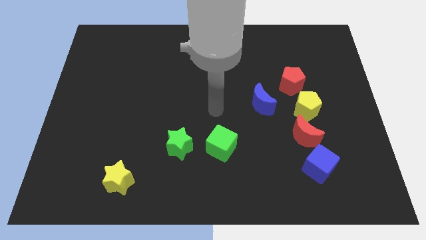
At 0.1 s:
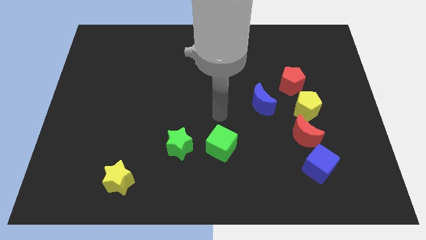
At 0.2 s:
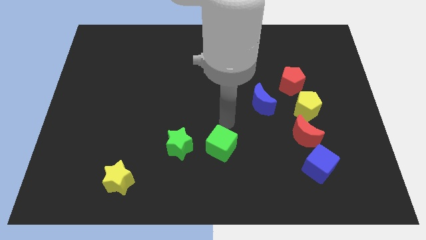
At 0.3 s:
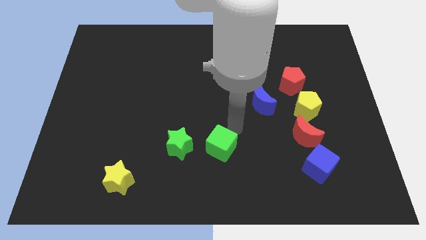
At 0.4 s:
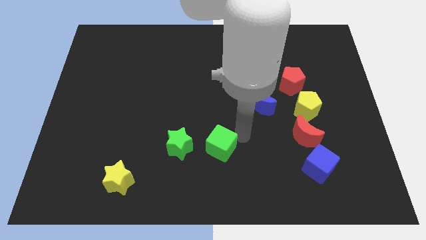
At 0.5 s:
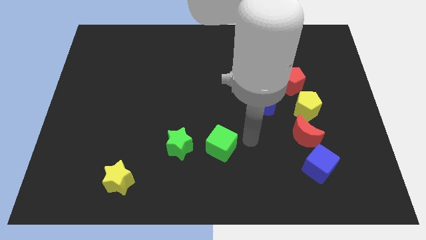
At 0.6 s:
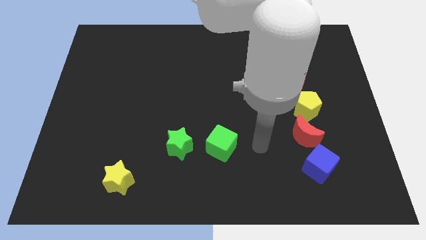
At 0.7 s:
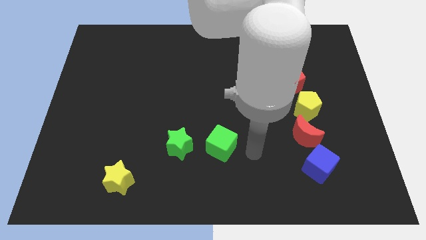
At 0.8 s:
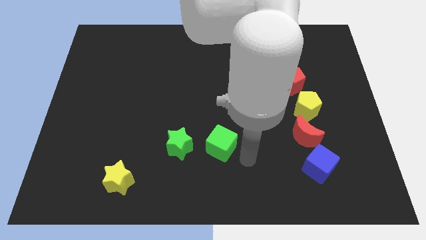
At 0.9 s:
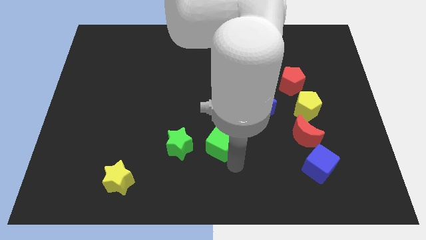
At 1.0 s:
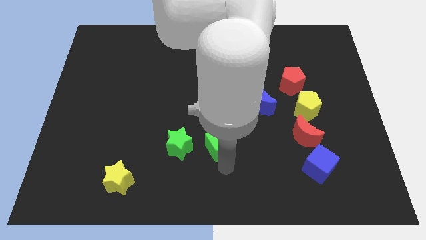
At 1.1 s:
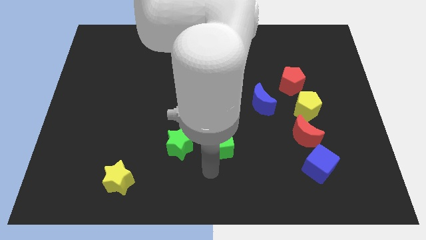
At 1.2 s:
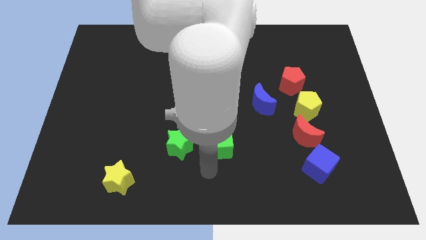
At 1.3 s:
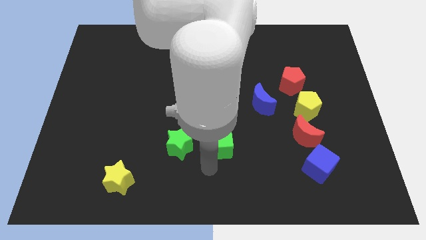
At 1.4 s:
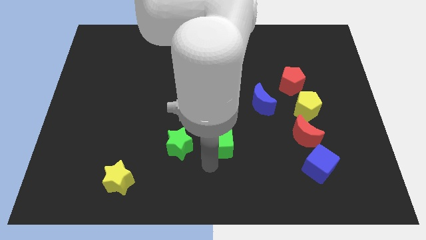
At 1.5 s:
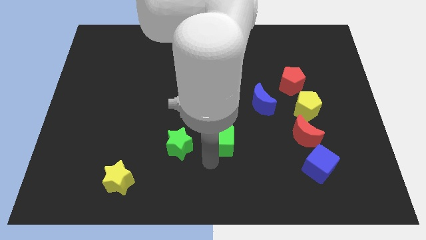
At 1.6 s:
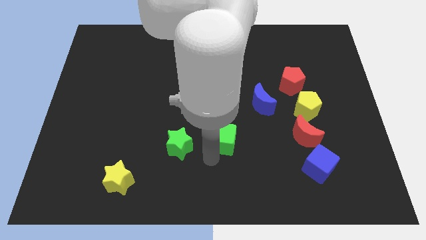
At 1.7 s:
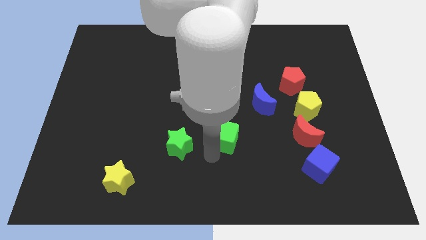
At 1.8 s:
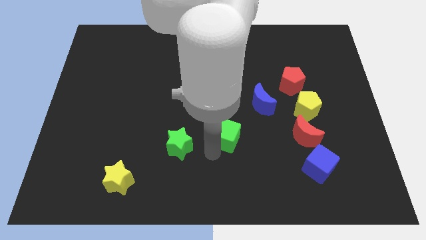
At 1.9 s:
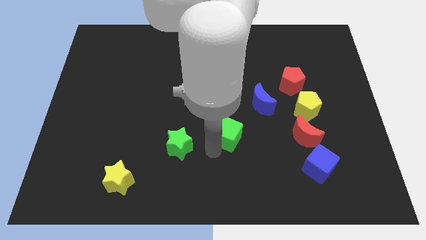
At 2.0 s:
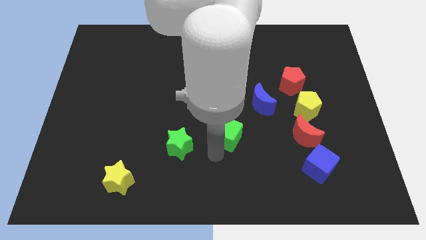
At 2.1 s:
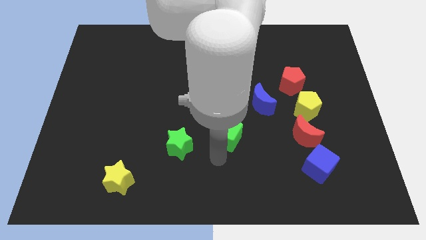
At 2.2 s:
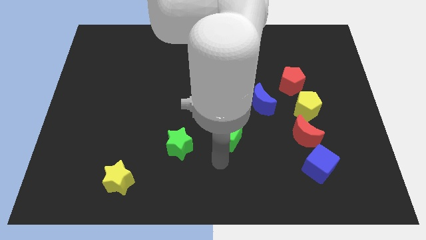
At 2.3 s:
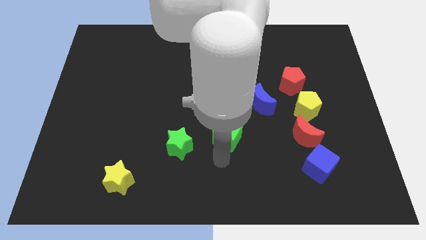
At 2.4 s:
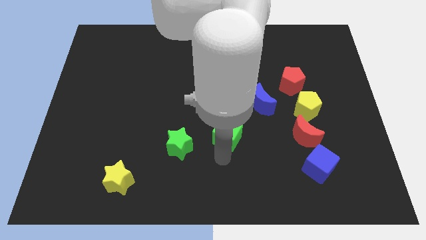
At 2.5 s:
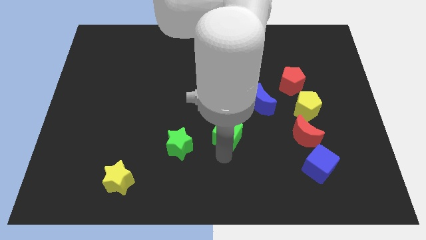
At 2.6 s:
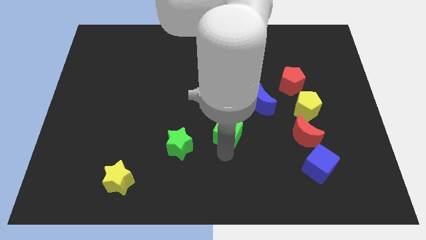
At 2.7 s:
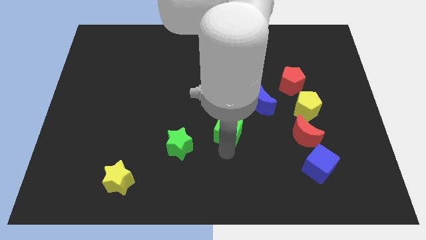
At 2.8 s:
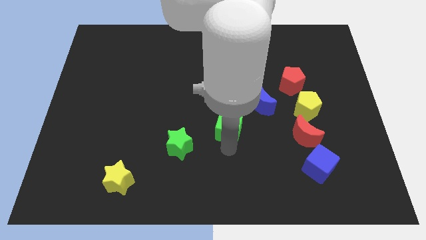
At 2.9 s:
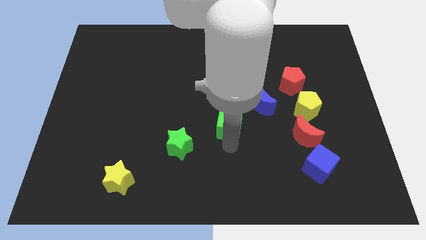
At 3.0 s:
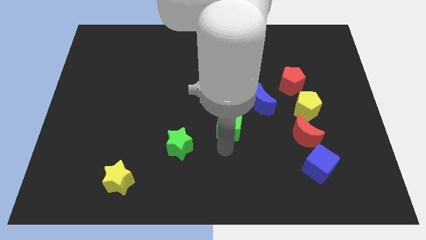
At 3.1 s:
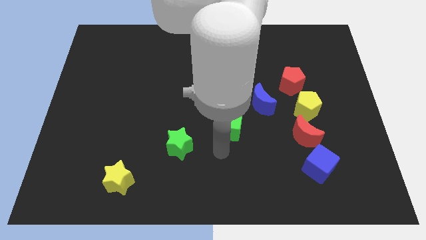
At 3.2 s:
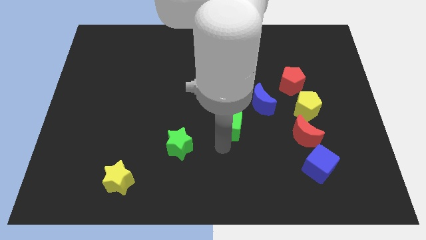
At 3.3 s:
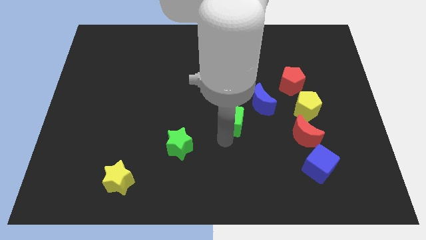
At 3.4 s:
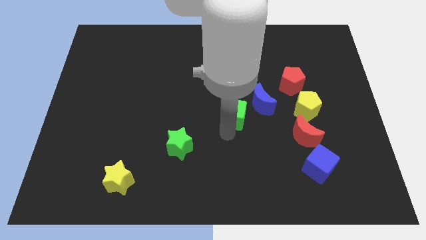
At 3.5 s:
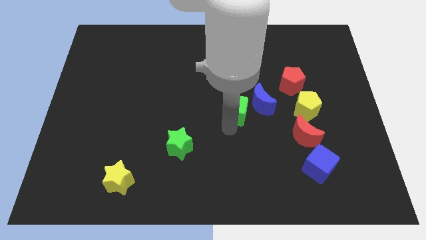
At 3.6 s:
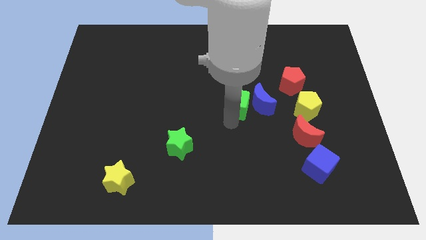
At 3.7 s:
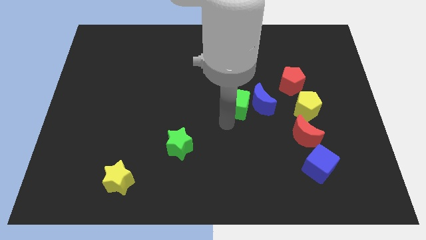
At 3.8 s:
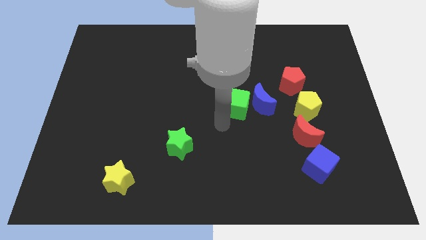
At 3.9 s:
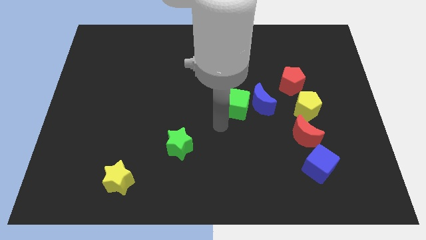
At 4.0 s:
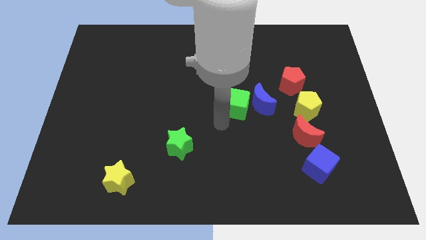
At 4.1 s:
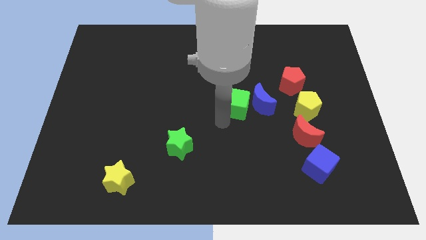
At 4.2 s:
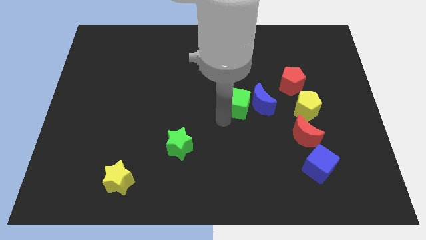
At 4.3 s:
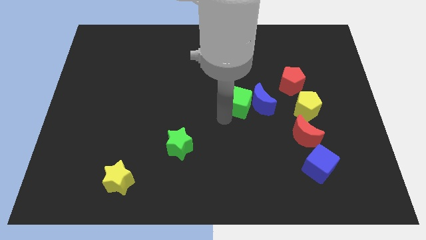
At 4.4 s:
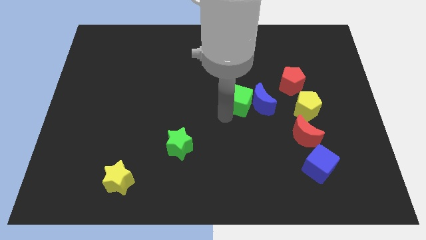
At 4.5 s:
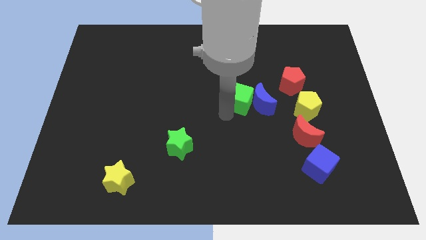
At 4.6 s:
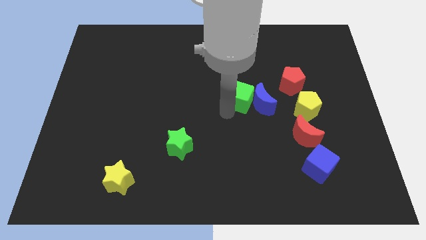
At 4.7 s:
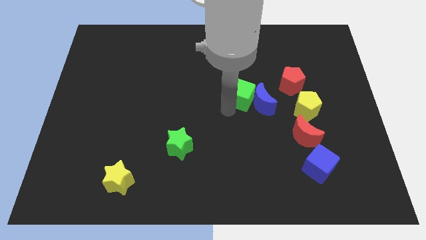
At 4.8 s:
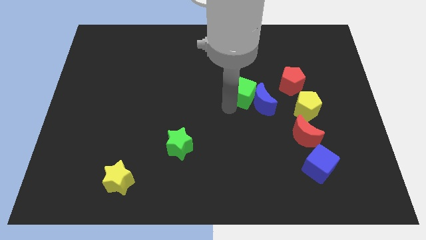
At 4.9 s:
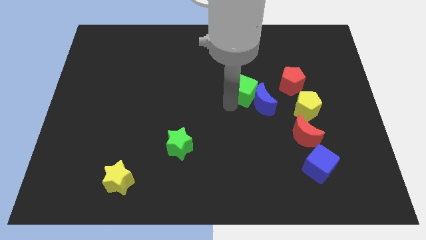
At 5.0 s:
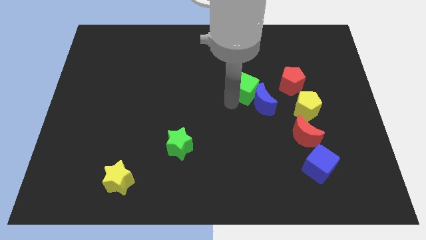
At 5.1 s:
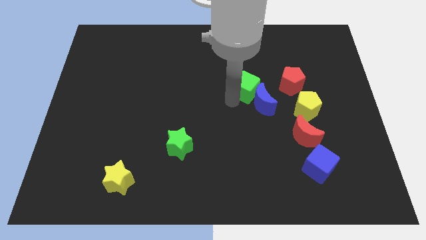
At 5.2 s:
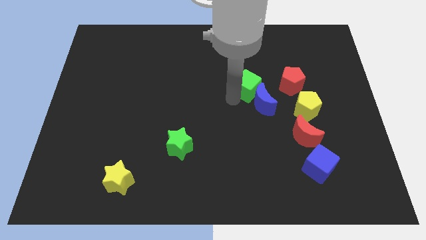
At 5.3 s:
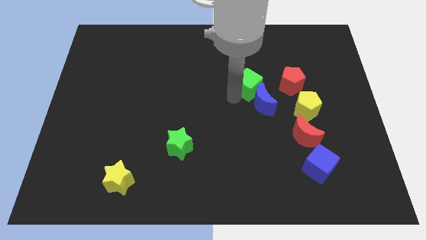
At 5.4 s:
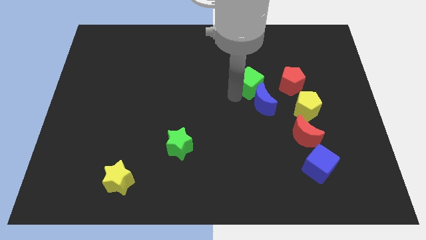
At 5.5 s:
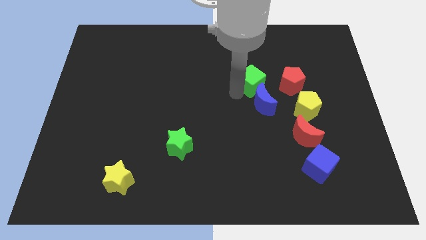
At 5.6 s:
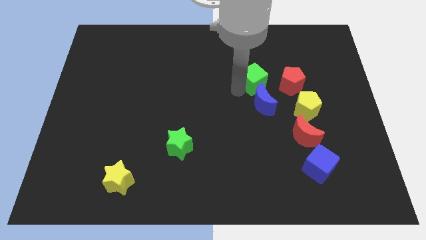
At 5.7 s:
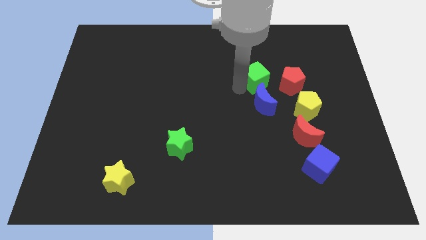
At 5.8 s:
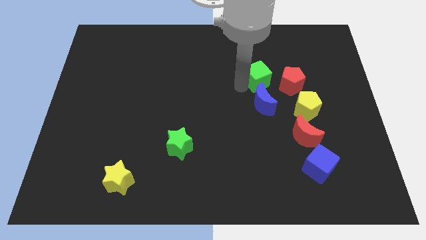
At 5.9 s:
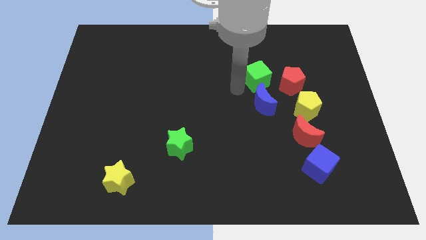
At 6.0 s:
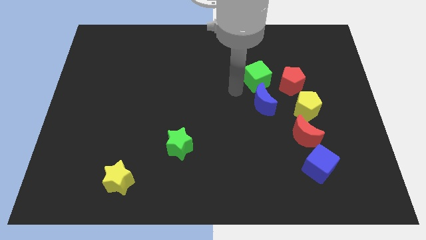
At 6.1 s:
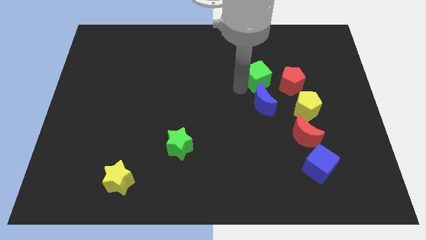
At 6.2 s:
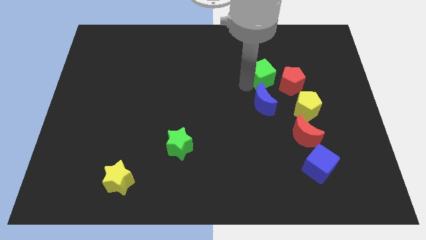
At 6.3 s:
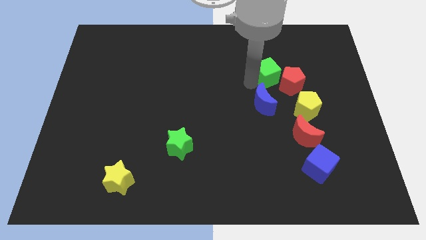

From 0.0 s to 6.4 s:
push the green cube upwards and to the right

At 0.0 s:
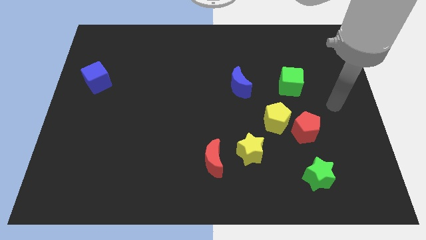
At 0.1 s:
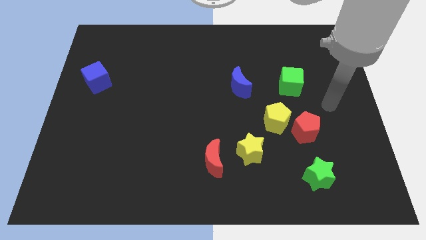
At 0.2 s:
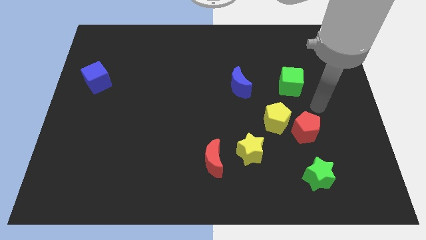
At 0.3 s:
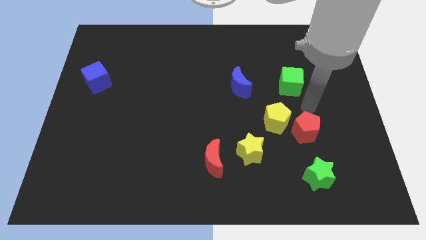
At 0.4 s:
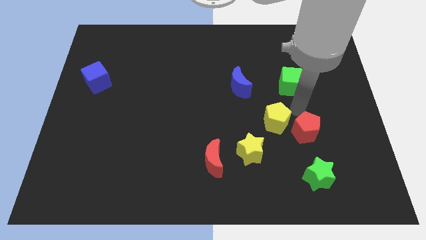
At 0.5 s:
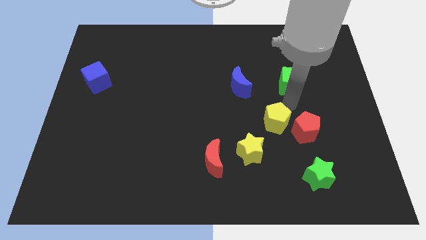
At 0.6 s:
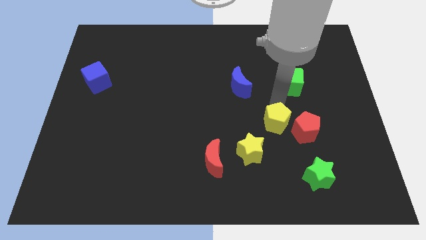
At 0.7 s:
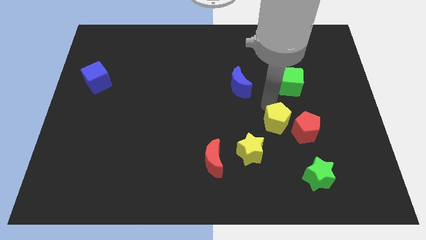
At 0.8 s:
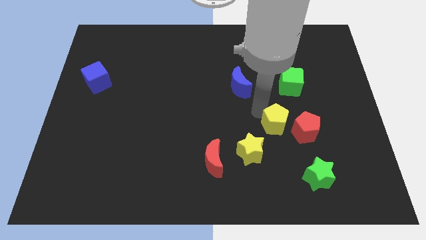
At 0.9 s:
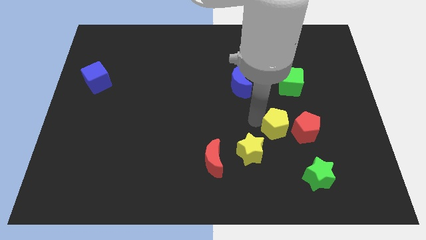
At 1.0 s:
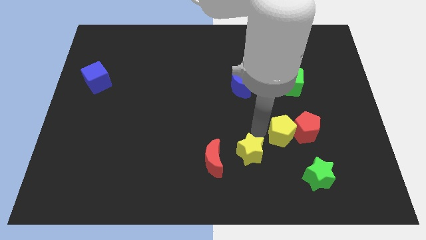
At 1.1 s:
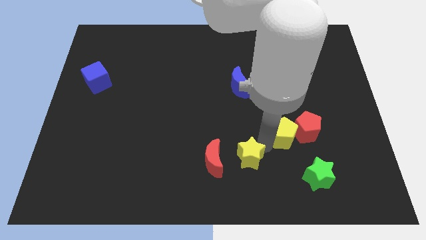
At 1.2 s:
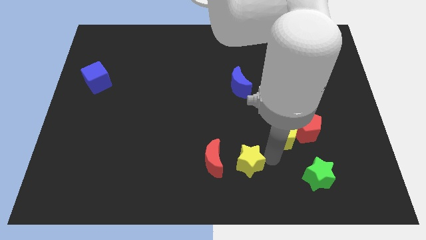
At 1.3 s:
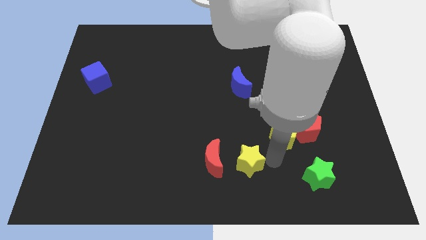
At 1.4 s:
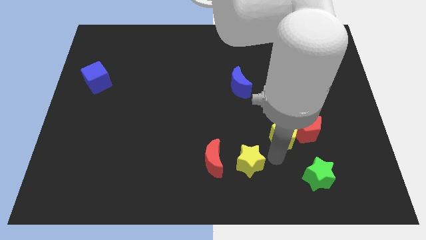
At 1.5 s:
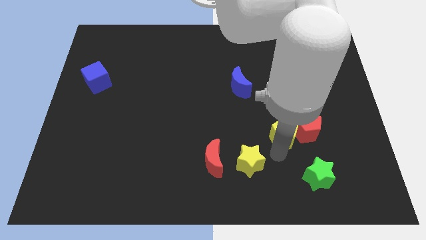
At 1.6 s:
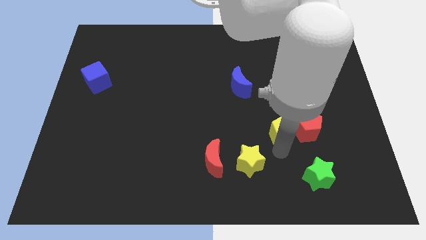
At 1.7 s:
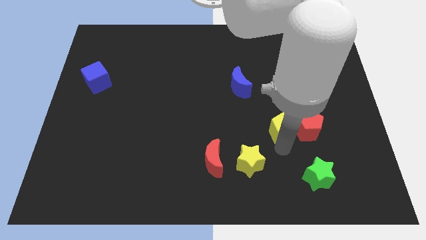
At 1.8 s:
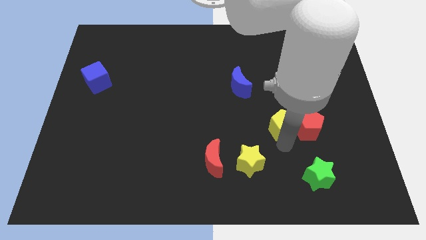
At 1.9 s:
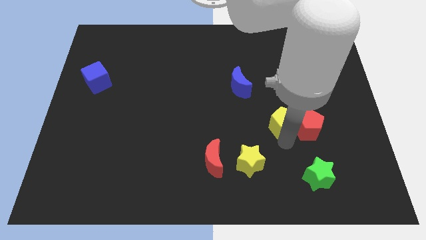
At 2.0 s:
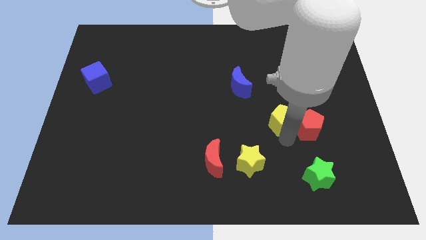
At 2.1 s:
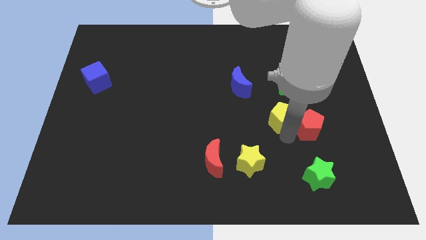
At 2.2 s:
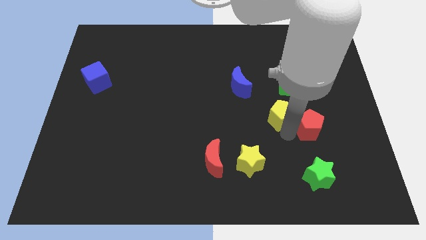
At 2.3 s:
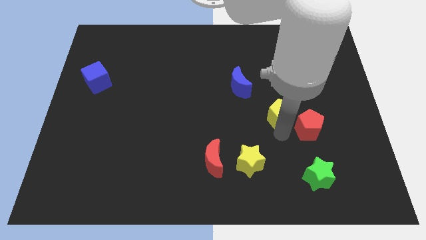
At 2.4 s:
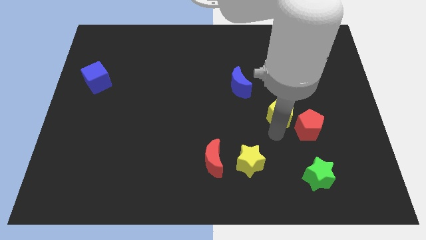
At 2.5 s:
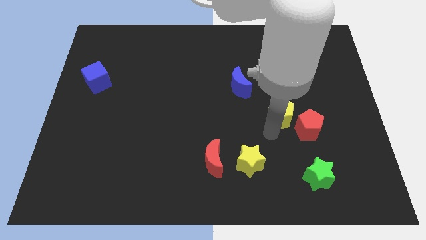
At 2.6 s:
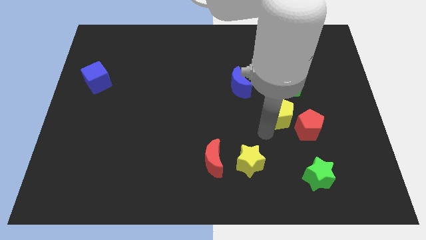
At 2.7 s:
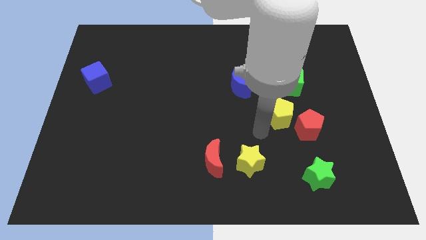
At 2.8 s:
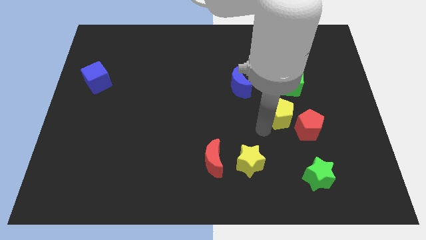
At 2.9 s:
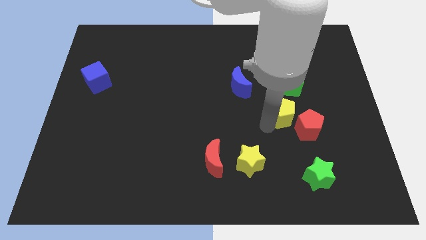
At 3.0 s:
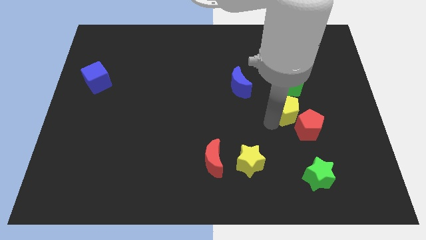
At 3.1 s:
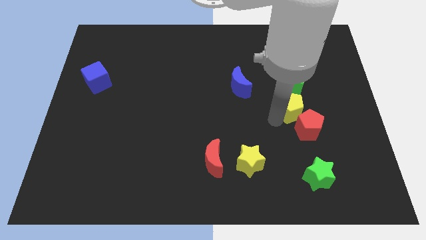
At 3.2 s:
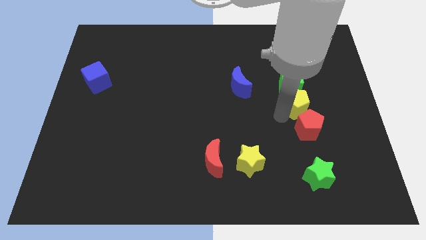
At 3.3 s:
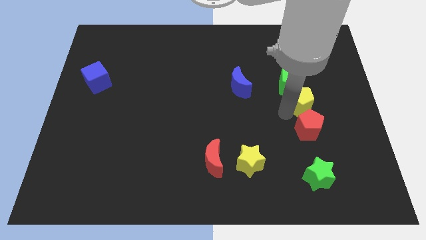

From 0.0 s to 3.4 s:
slide the yellow pentagon up and right diagonally a little bit
